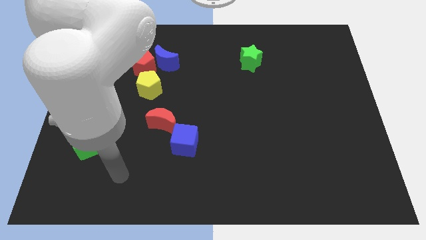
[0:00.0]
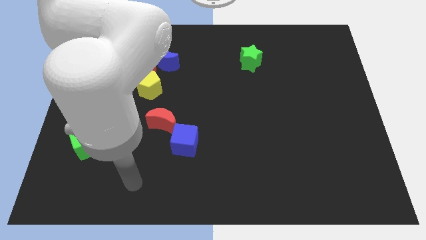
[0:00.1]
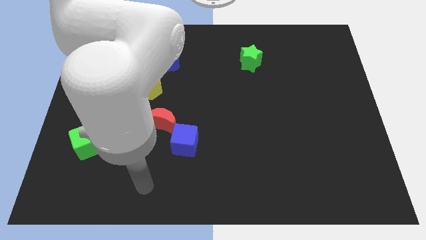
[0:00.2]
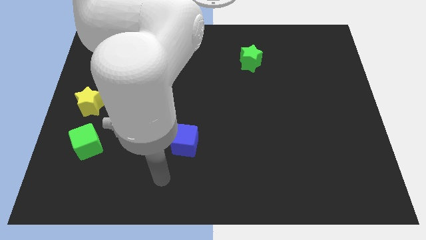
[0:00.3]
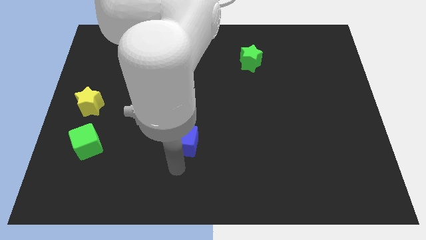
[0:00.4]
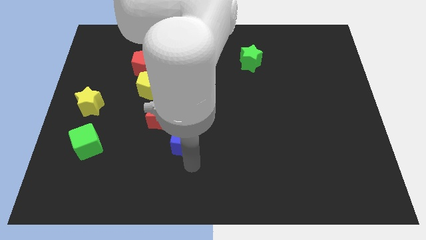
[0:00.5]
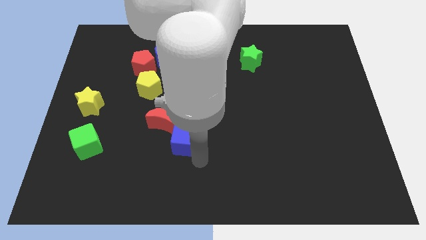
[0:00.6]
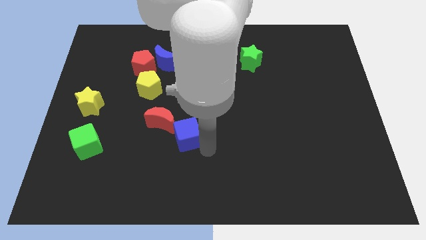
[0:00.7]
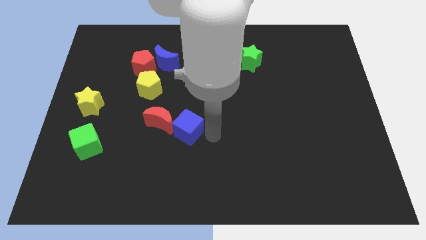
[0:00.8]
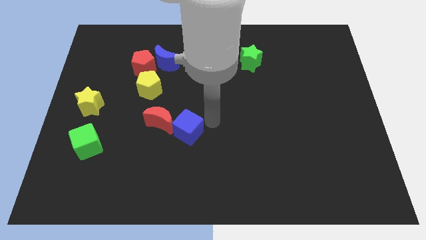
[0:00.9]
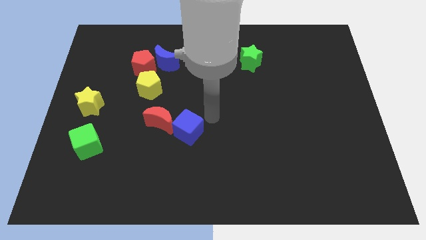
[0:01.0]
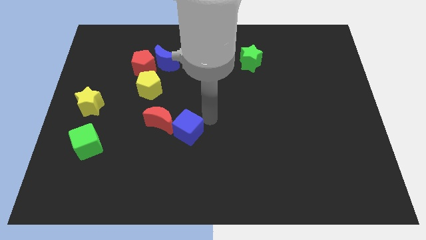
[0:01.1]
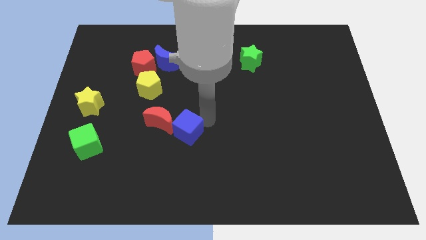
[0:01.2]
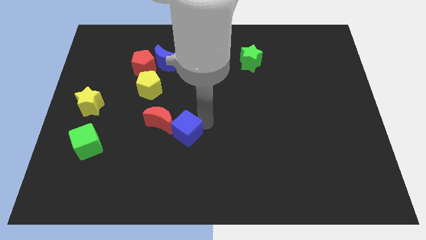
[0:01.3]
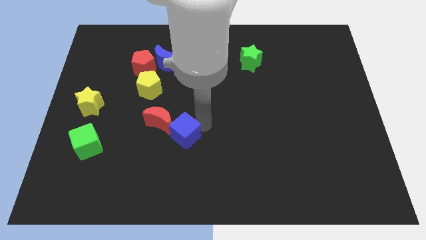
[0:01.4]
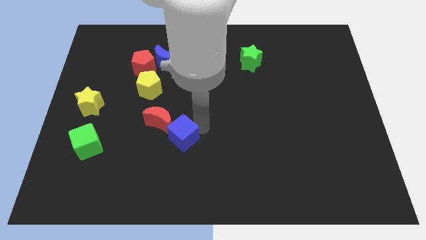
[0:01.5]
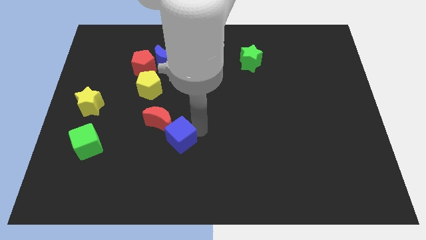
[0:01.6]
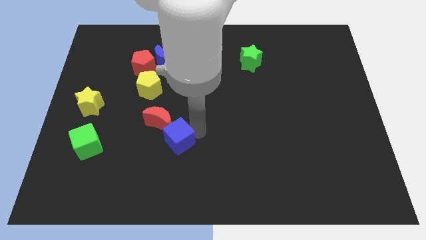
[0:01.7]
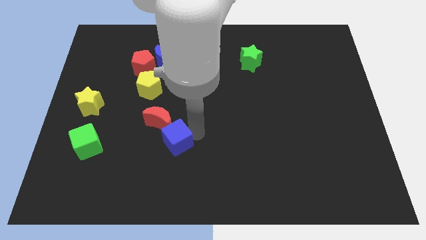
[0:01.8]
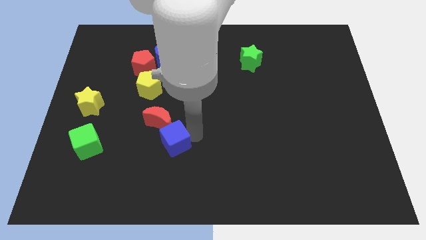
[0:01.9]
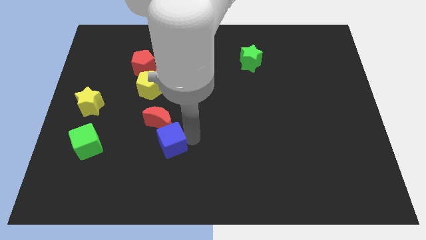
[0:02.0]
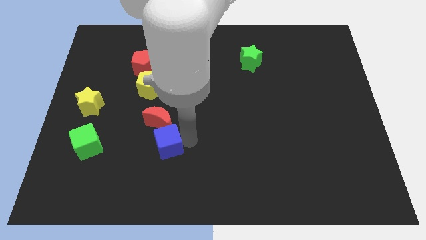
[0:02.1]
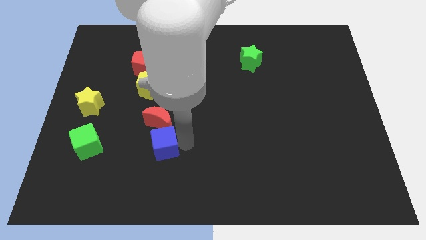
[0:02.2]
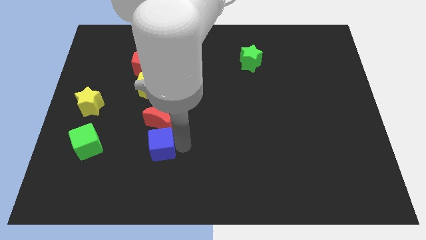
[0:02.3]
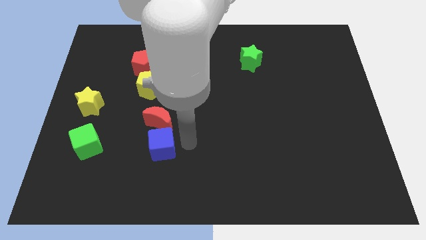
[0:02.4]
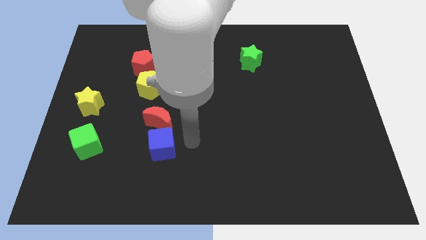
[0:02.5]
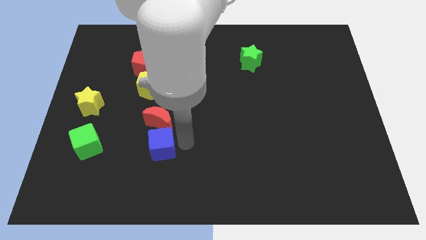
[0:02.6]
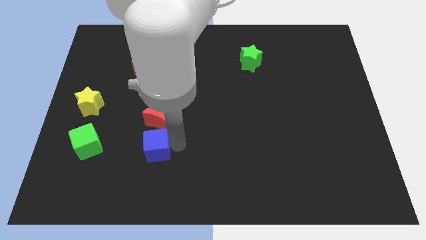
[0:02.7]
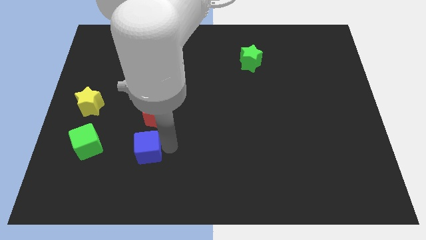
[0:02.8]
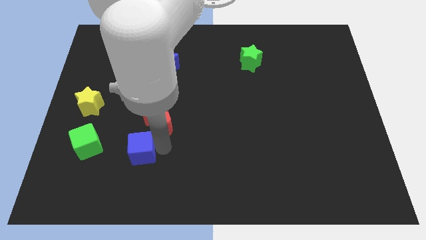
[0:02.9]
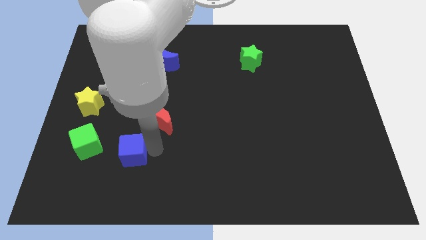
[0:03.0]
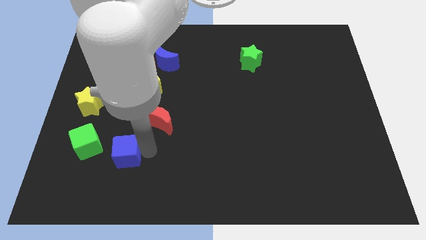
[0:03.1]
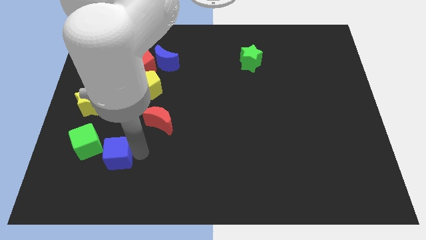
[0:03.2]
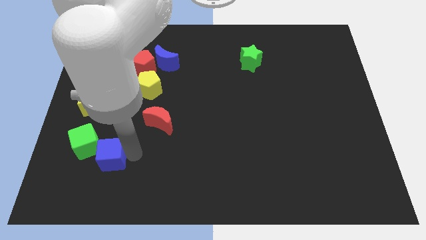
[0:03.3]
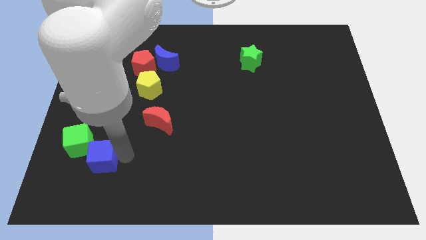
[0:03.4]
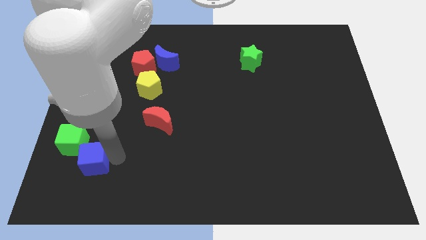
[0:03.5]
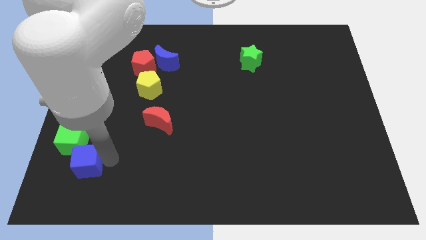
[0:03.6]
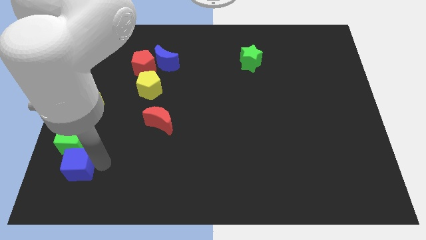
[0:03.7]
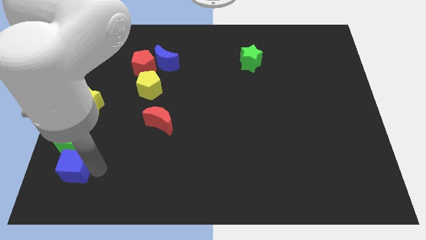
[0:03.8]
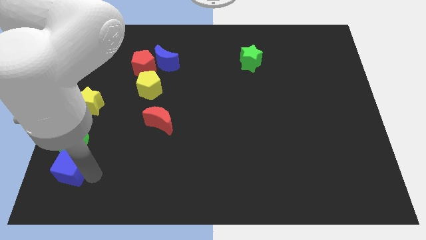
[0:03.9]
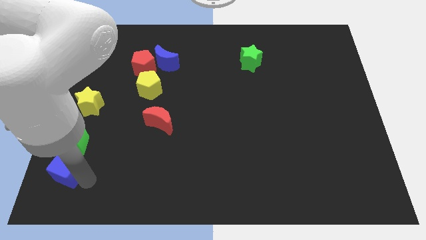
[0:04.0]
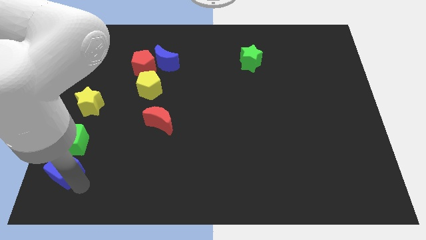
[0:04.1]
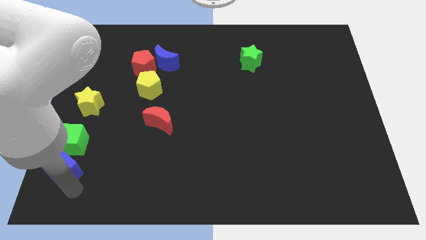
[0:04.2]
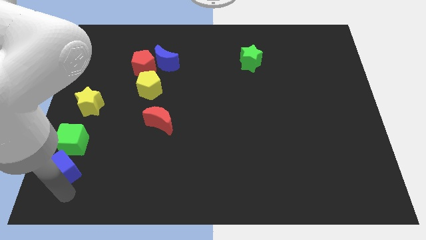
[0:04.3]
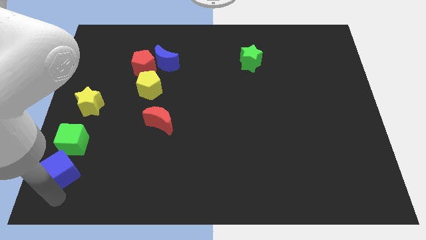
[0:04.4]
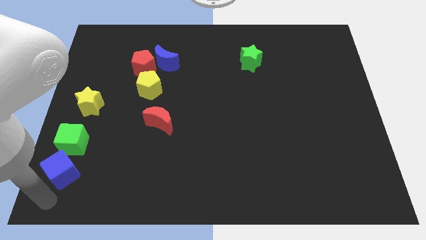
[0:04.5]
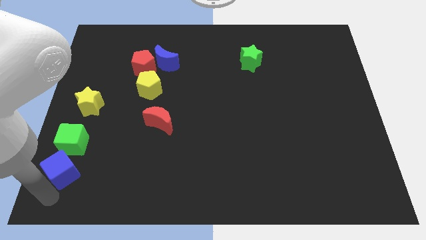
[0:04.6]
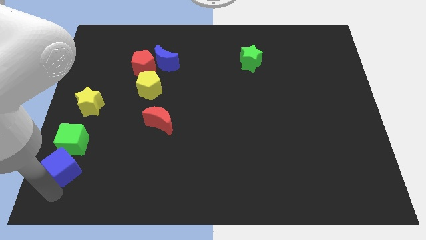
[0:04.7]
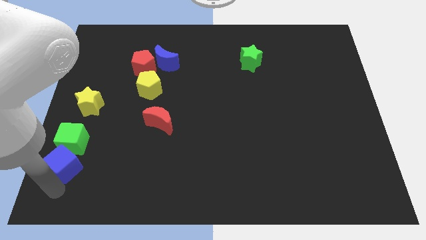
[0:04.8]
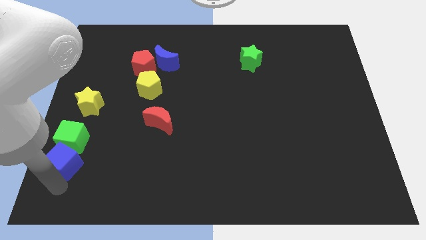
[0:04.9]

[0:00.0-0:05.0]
slide the blue cube to the bottom side of the yellow star

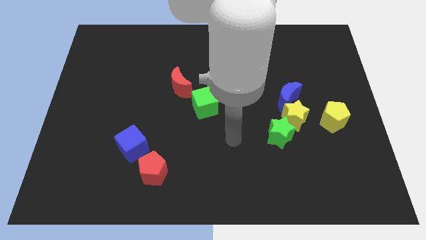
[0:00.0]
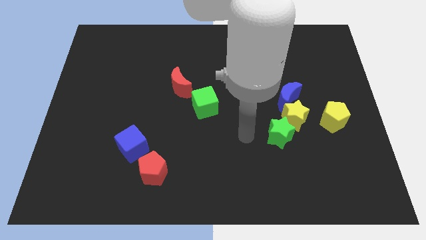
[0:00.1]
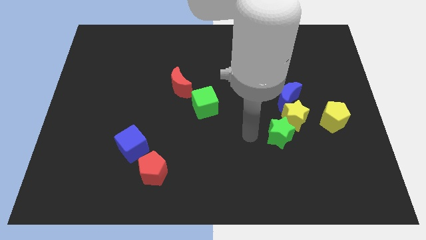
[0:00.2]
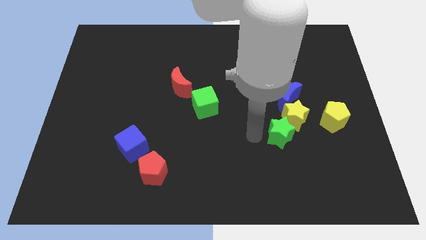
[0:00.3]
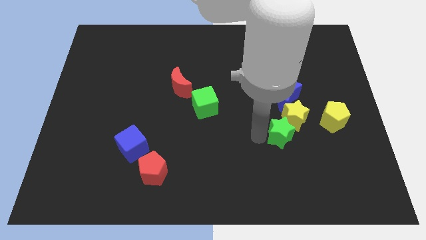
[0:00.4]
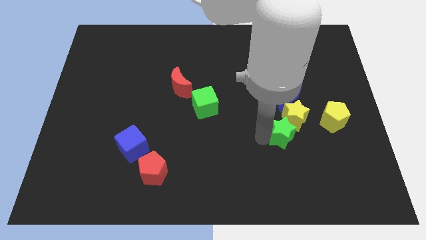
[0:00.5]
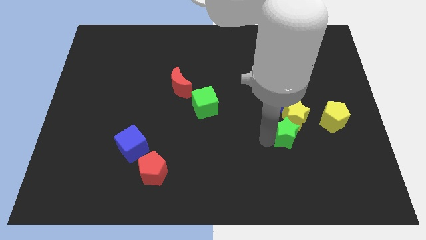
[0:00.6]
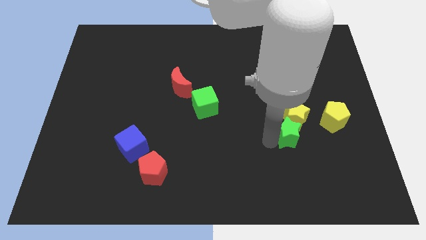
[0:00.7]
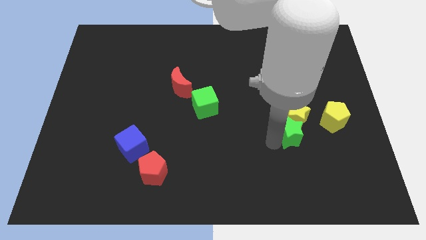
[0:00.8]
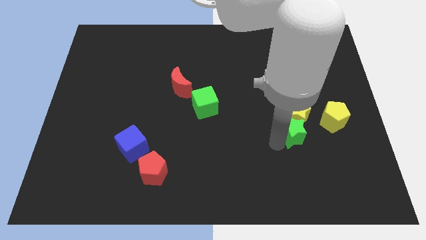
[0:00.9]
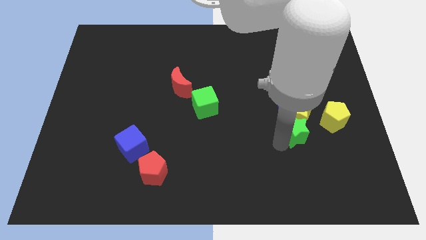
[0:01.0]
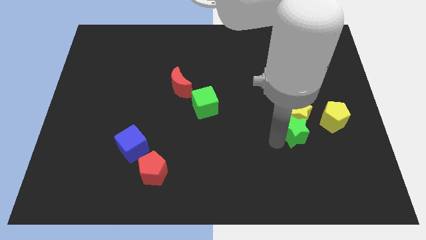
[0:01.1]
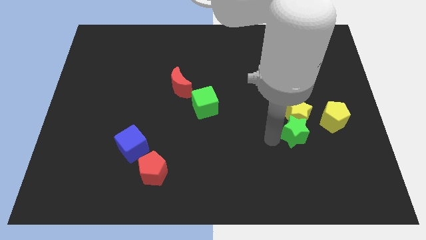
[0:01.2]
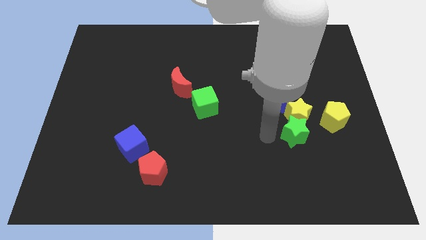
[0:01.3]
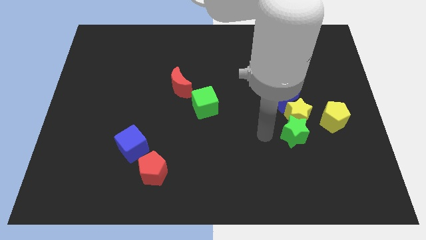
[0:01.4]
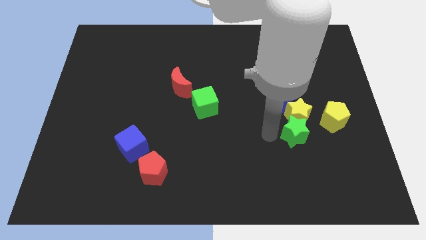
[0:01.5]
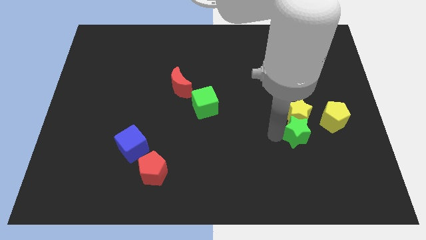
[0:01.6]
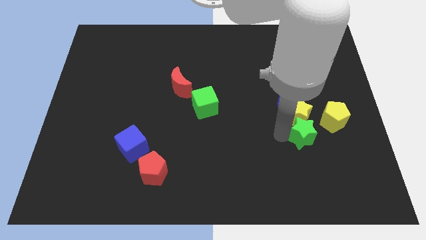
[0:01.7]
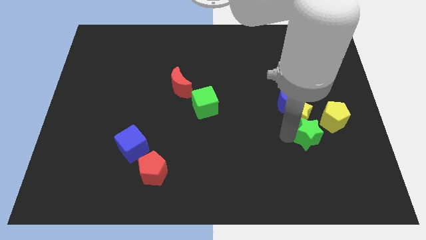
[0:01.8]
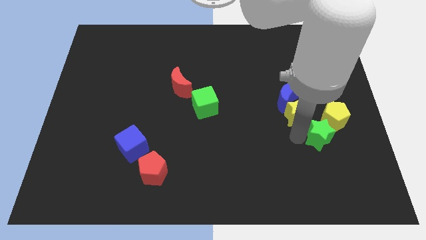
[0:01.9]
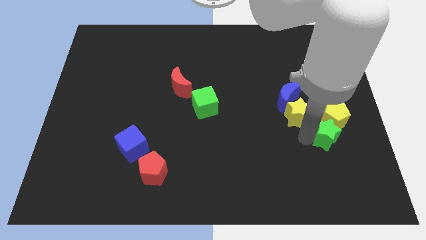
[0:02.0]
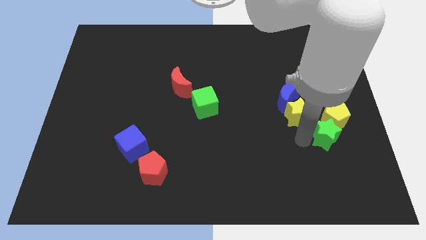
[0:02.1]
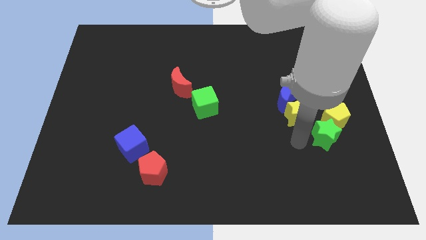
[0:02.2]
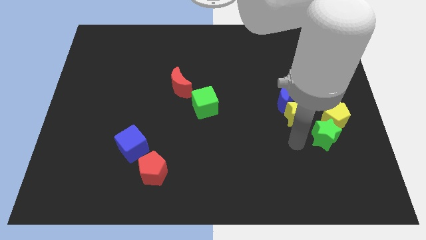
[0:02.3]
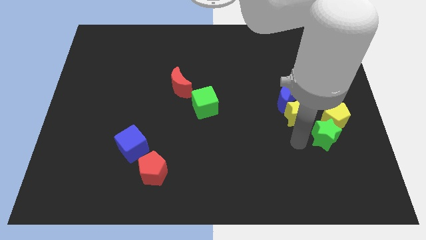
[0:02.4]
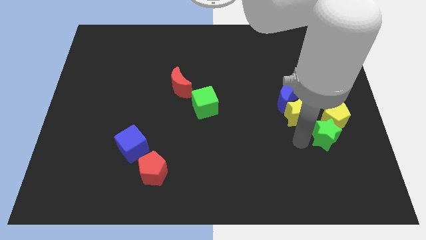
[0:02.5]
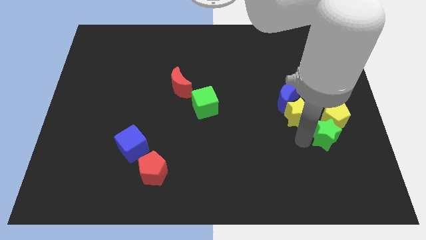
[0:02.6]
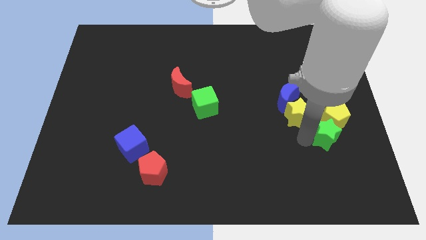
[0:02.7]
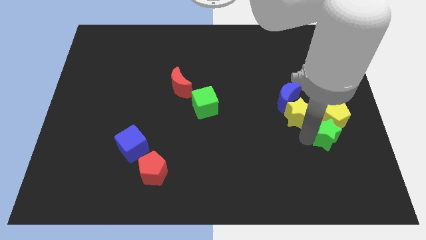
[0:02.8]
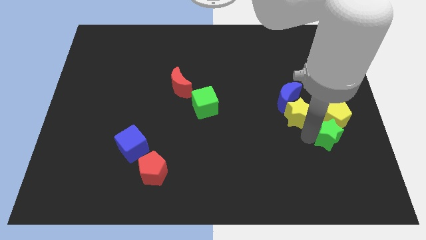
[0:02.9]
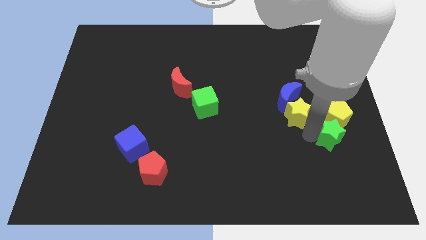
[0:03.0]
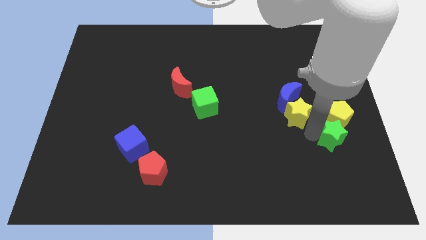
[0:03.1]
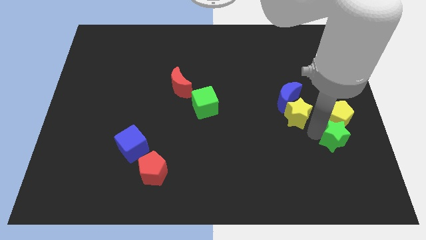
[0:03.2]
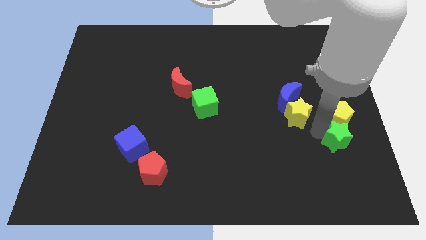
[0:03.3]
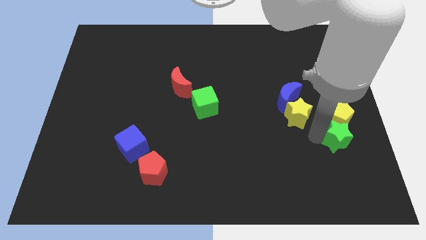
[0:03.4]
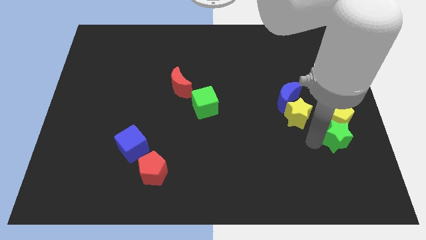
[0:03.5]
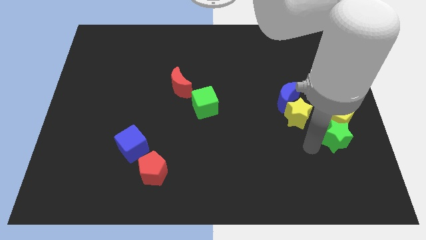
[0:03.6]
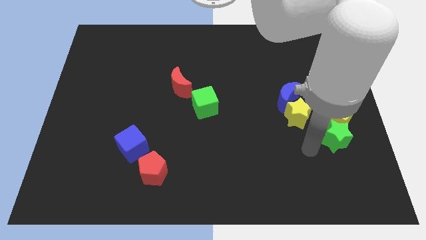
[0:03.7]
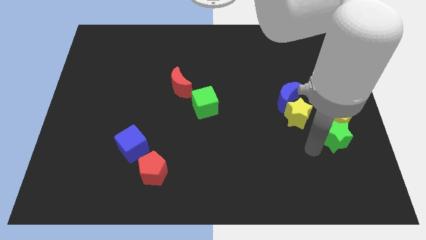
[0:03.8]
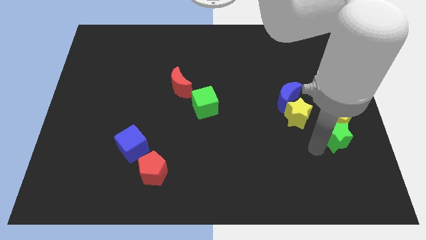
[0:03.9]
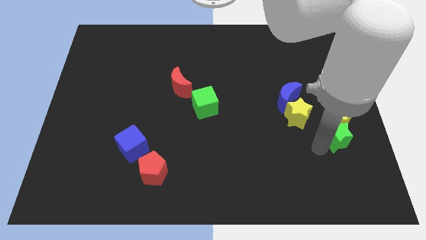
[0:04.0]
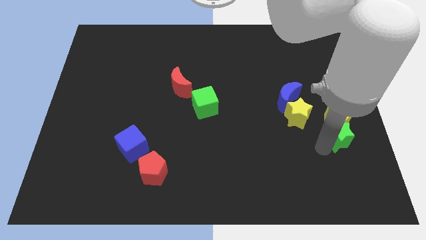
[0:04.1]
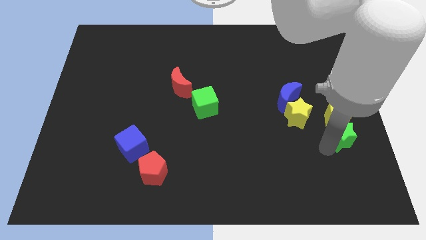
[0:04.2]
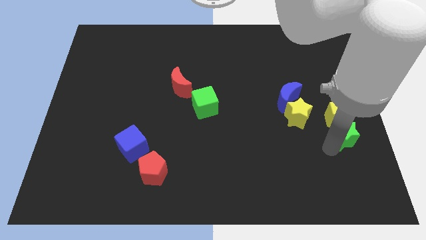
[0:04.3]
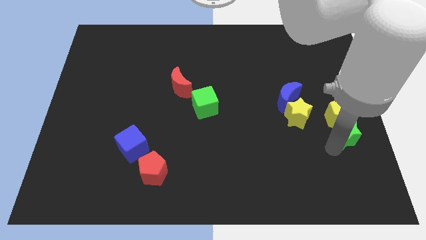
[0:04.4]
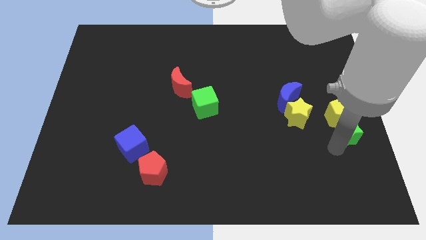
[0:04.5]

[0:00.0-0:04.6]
put the green star just right of the yellow star
